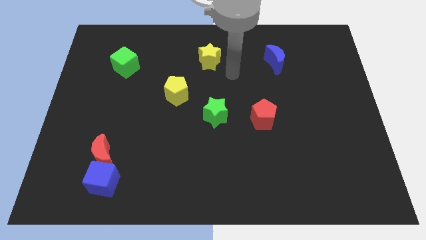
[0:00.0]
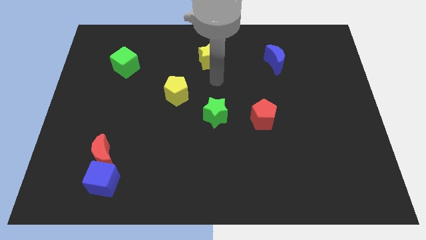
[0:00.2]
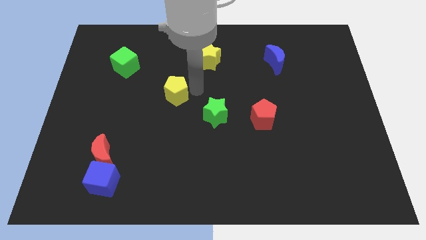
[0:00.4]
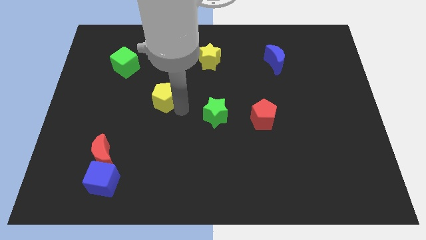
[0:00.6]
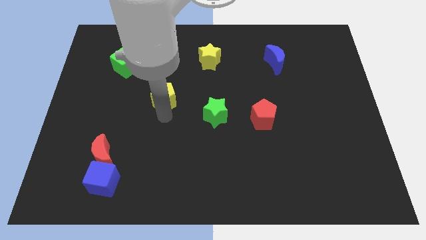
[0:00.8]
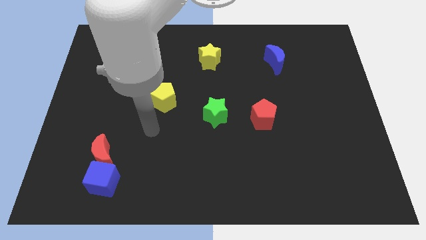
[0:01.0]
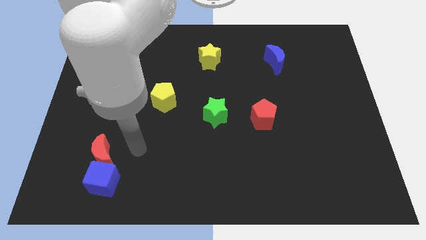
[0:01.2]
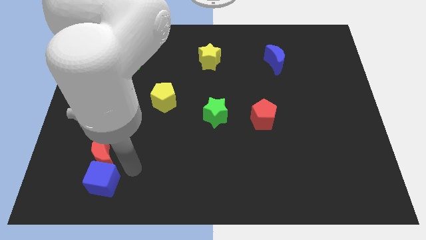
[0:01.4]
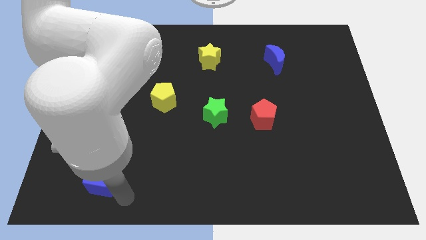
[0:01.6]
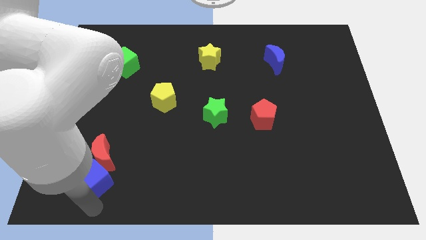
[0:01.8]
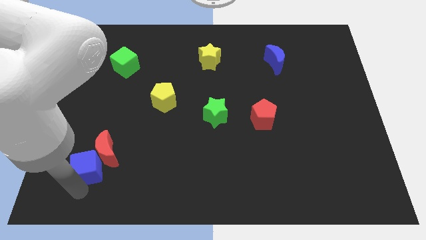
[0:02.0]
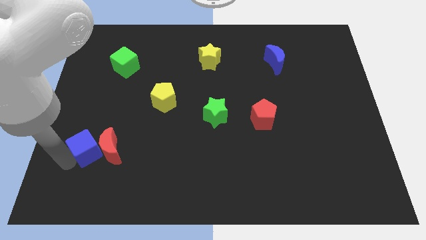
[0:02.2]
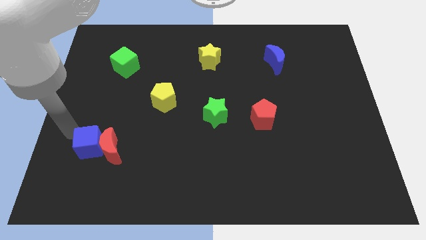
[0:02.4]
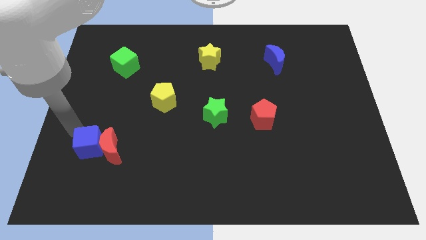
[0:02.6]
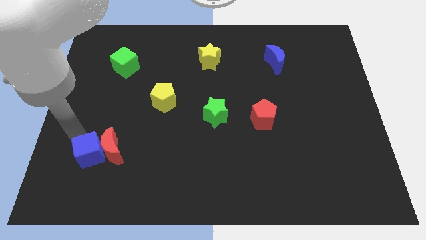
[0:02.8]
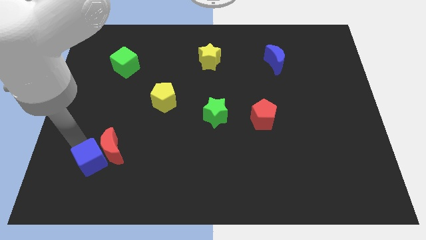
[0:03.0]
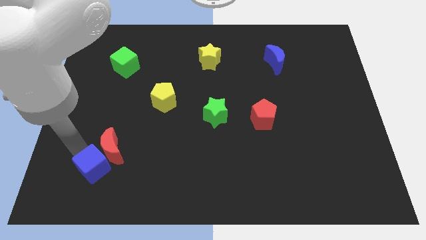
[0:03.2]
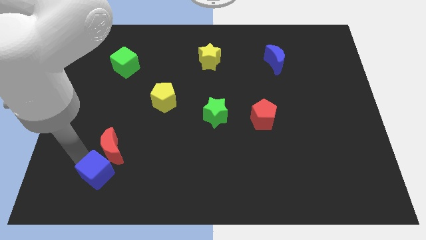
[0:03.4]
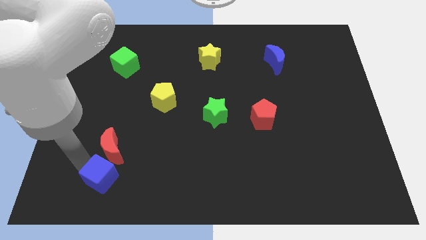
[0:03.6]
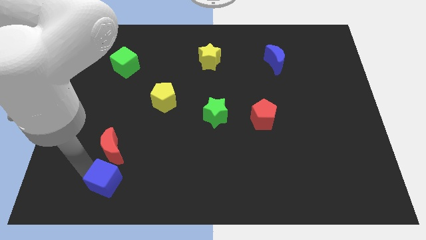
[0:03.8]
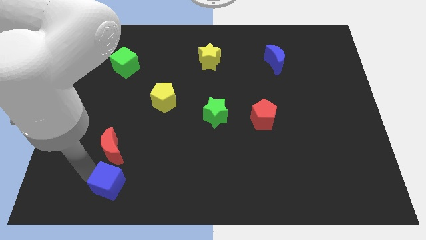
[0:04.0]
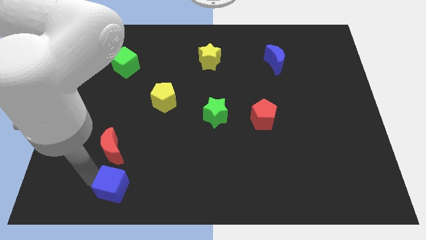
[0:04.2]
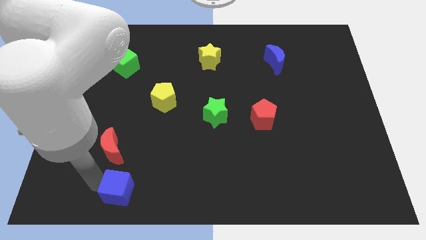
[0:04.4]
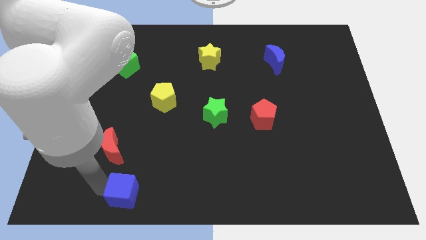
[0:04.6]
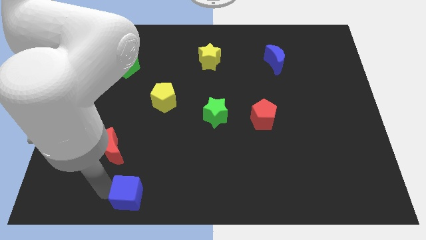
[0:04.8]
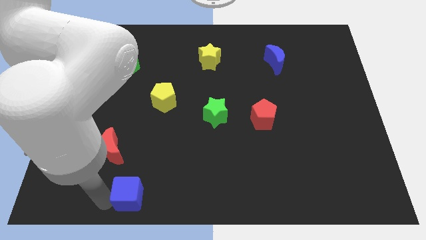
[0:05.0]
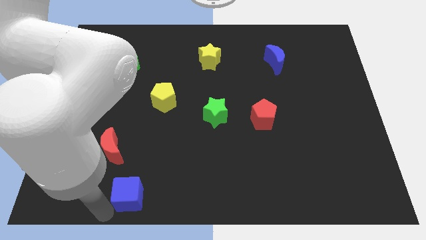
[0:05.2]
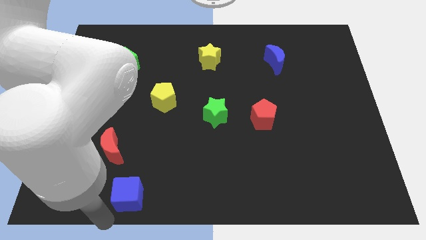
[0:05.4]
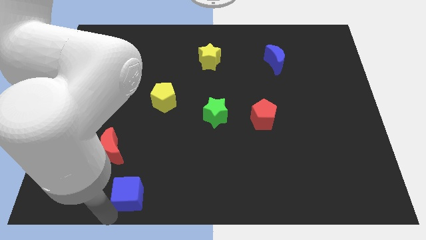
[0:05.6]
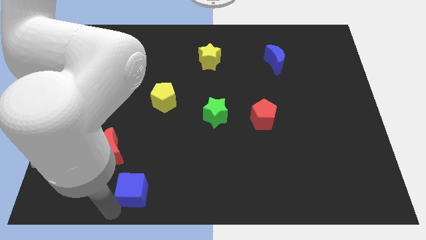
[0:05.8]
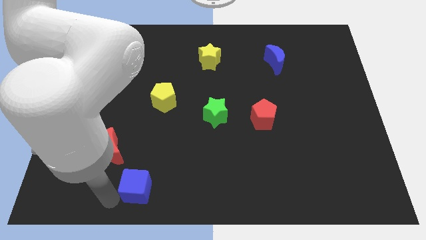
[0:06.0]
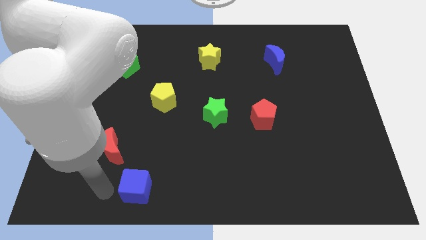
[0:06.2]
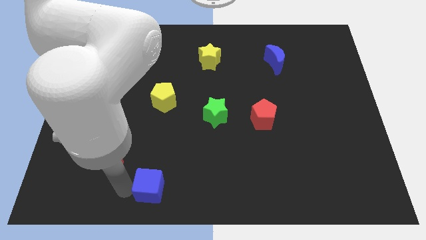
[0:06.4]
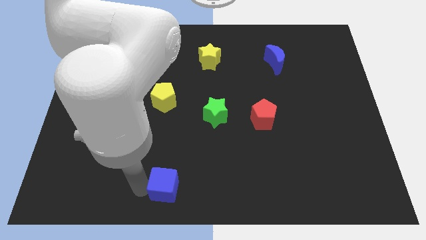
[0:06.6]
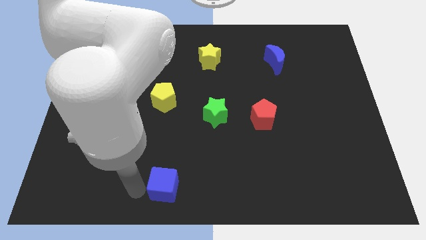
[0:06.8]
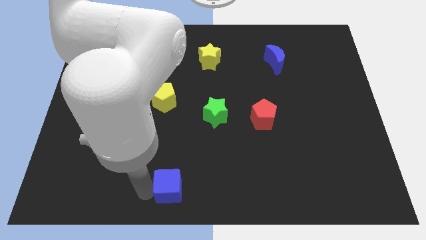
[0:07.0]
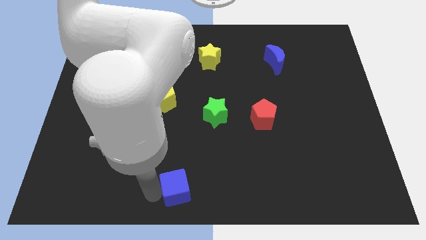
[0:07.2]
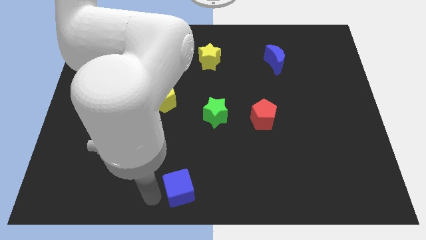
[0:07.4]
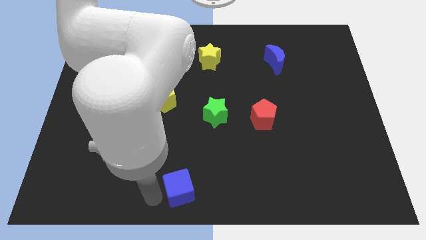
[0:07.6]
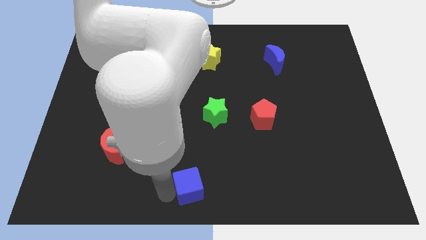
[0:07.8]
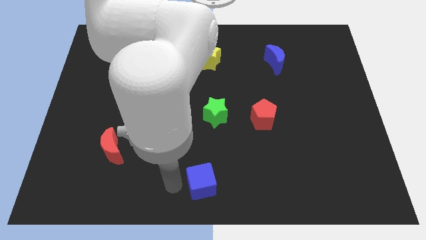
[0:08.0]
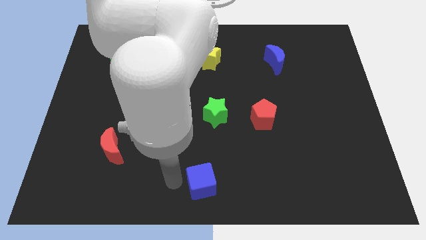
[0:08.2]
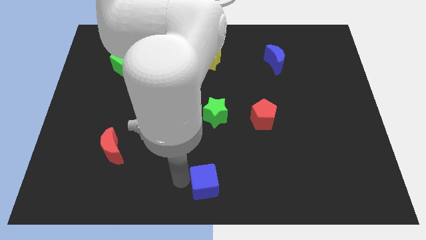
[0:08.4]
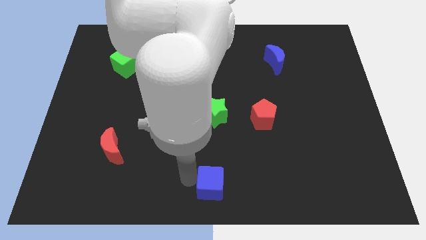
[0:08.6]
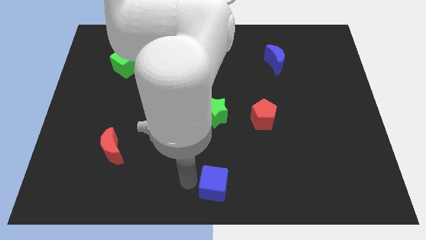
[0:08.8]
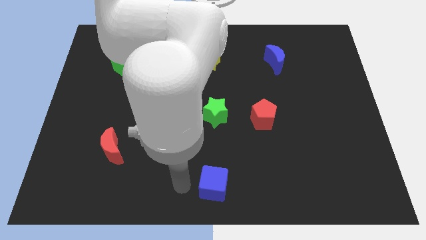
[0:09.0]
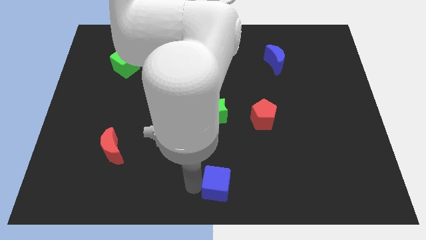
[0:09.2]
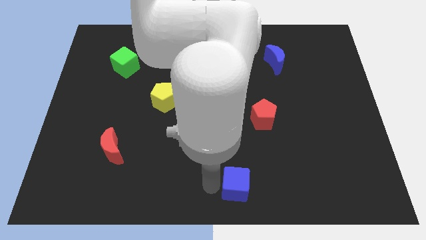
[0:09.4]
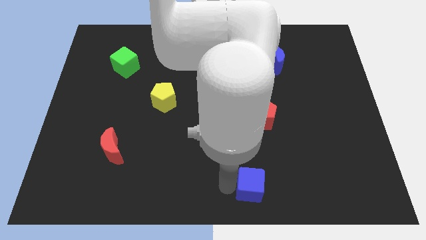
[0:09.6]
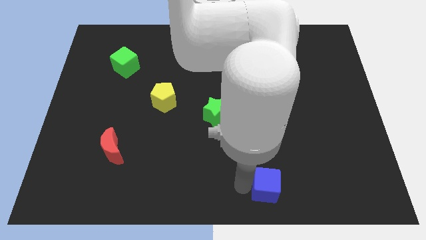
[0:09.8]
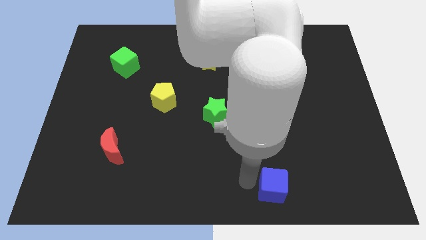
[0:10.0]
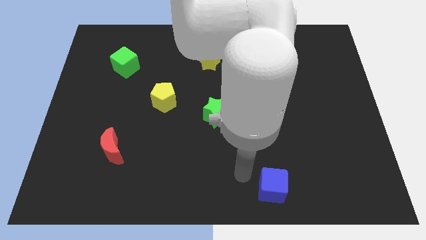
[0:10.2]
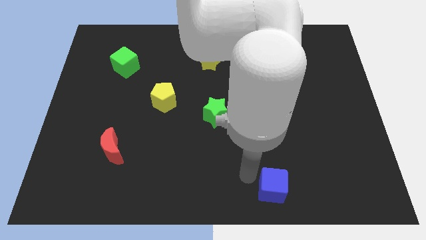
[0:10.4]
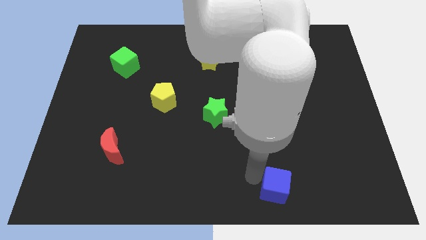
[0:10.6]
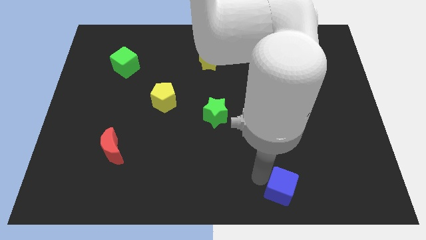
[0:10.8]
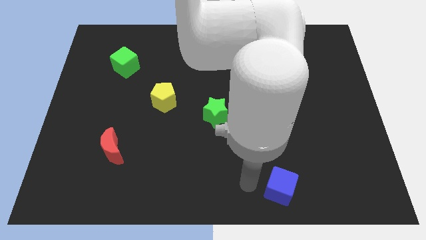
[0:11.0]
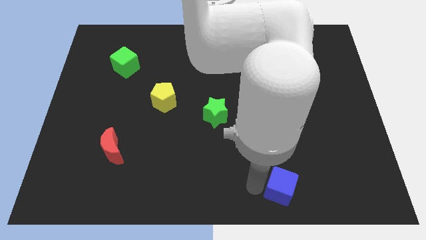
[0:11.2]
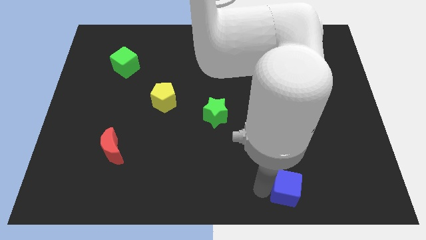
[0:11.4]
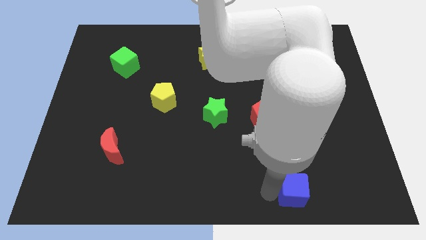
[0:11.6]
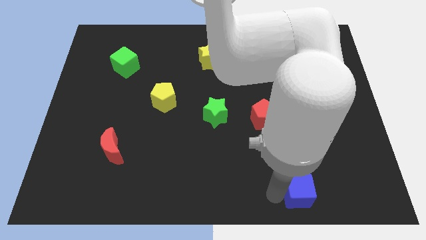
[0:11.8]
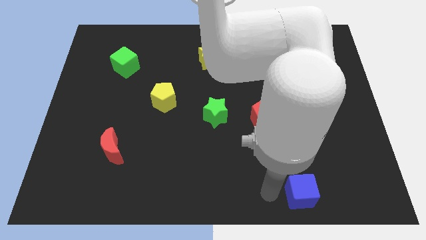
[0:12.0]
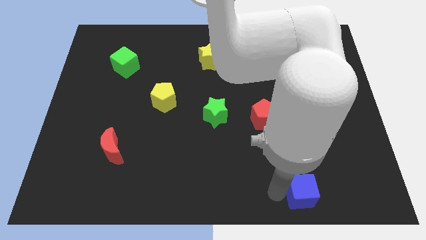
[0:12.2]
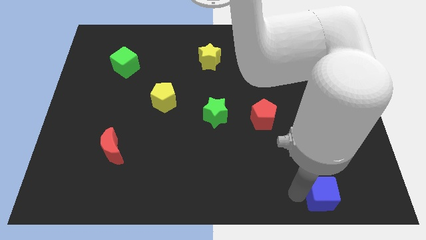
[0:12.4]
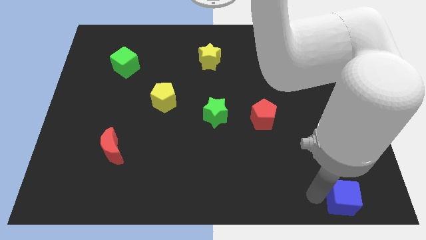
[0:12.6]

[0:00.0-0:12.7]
put the blue cube to the bottom right of the board
